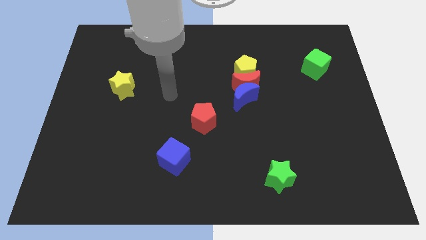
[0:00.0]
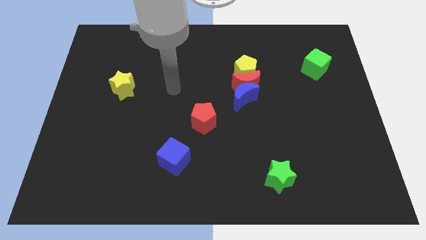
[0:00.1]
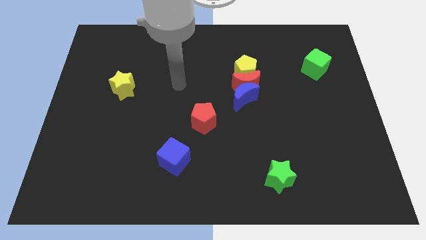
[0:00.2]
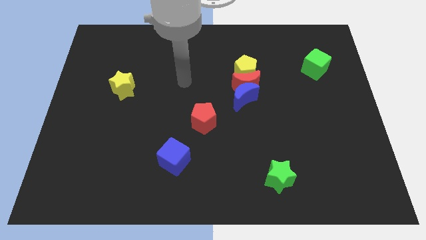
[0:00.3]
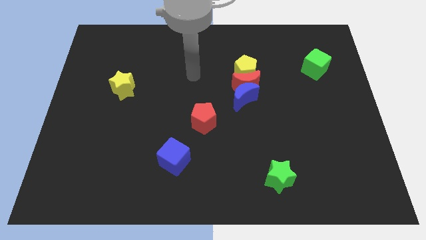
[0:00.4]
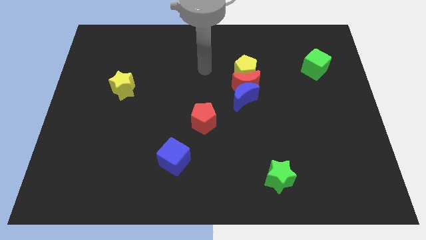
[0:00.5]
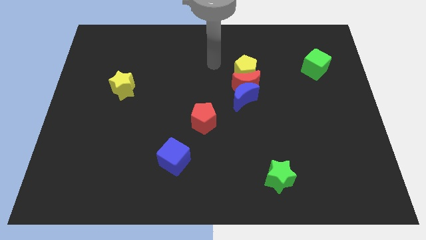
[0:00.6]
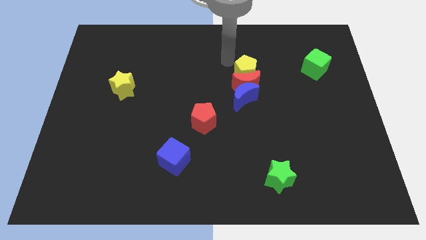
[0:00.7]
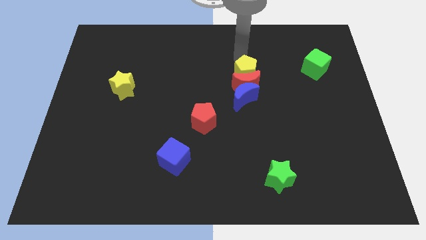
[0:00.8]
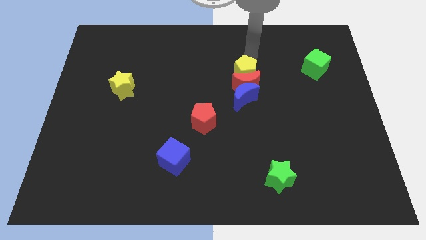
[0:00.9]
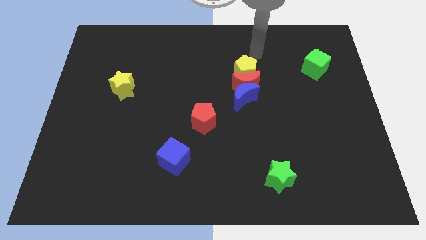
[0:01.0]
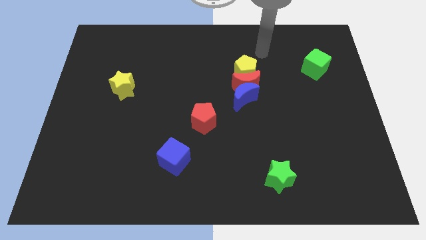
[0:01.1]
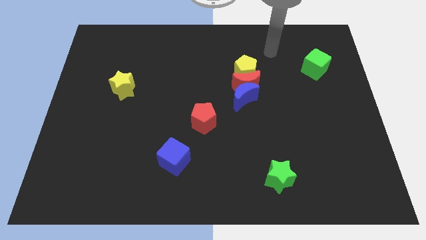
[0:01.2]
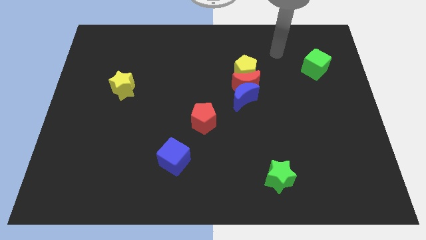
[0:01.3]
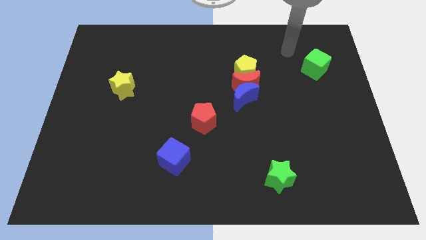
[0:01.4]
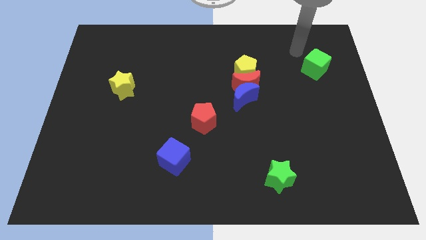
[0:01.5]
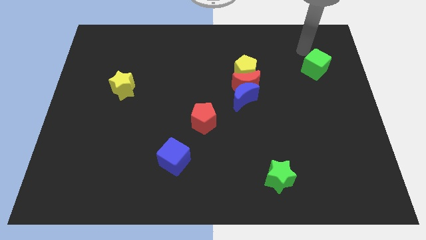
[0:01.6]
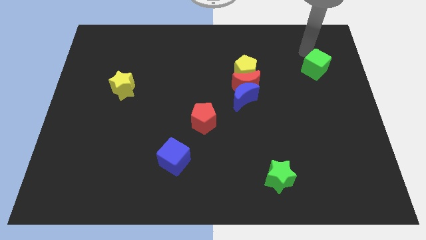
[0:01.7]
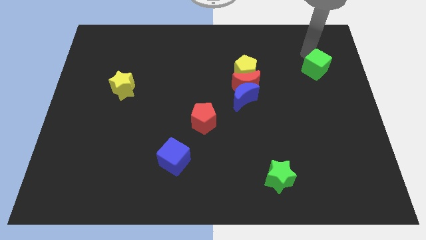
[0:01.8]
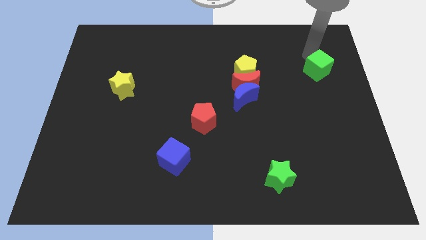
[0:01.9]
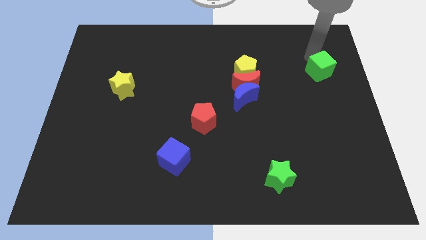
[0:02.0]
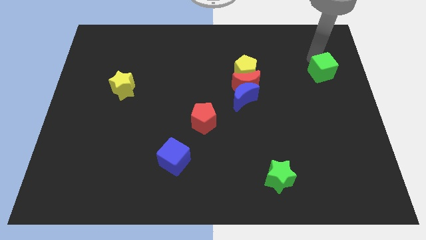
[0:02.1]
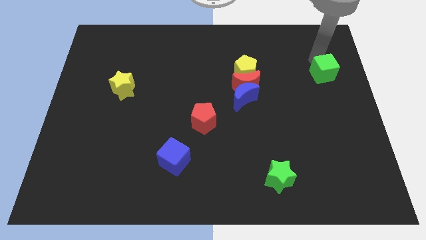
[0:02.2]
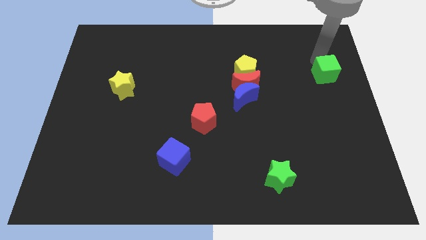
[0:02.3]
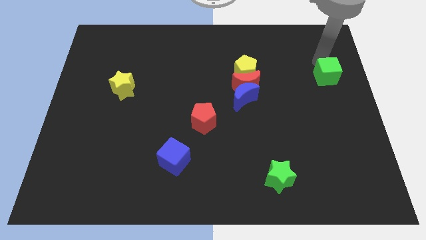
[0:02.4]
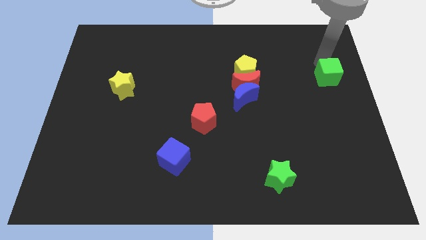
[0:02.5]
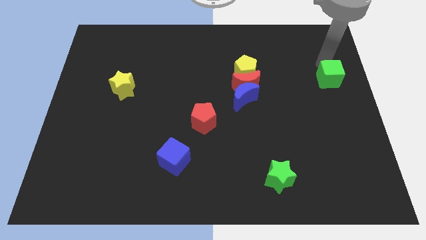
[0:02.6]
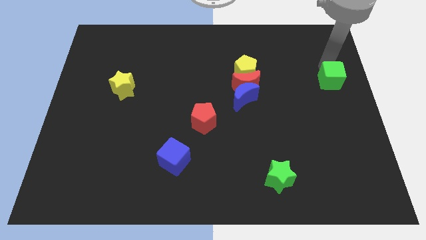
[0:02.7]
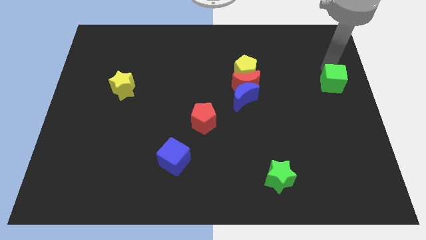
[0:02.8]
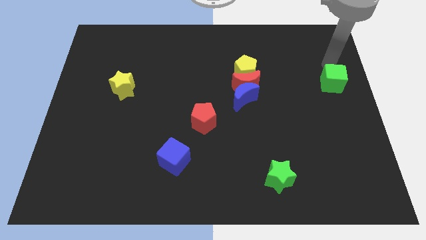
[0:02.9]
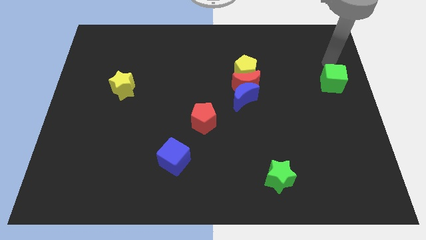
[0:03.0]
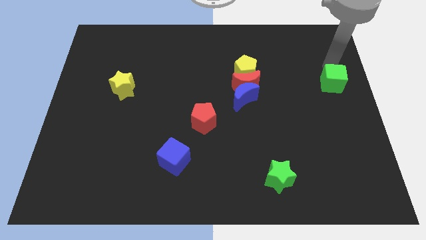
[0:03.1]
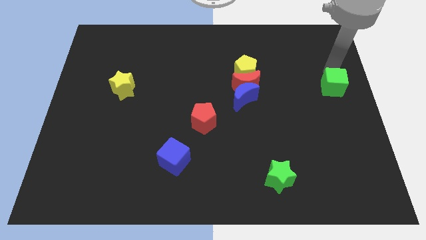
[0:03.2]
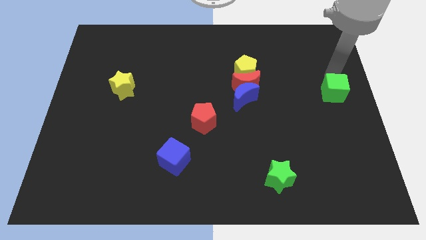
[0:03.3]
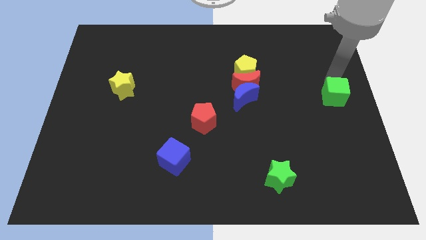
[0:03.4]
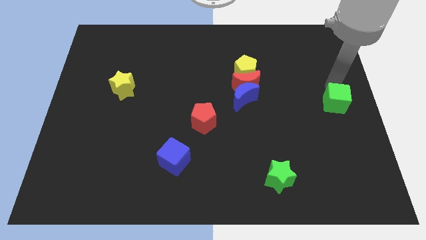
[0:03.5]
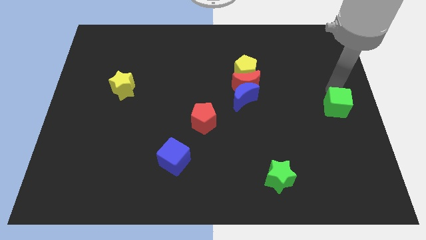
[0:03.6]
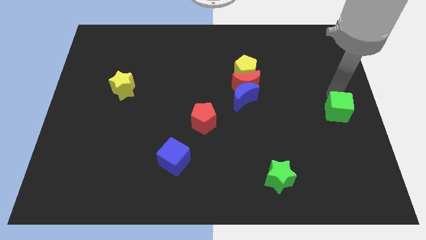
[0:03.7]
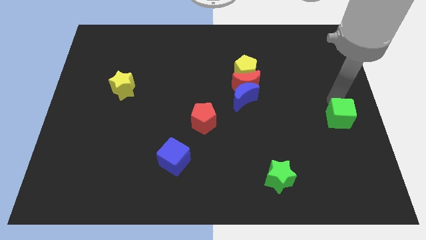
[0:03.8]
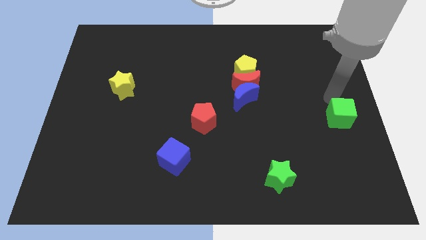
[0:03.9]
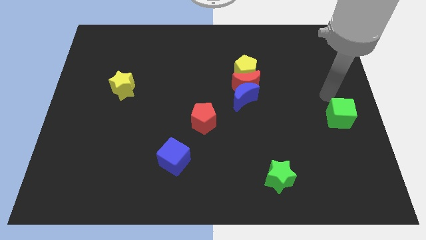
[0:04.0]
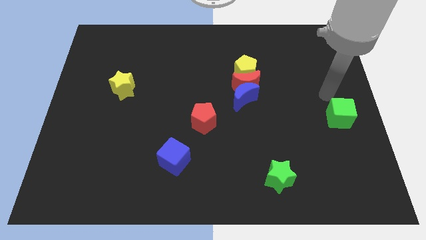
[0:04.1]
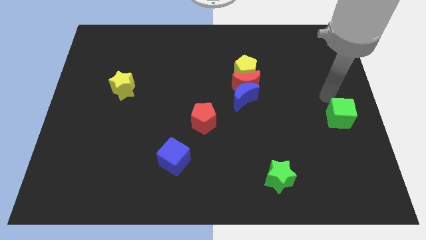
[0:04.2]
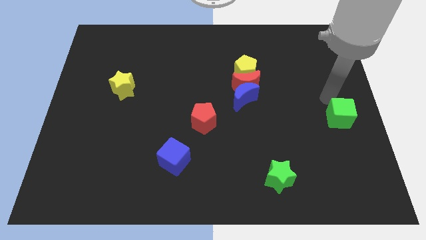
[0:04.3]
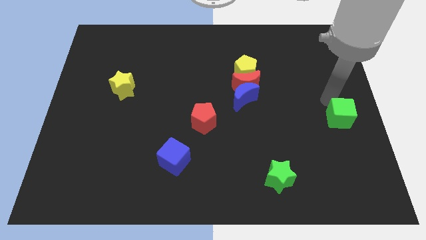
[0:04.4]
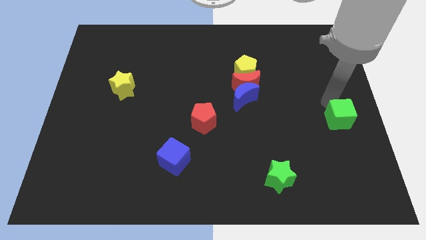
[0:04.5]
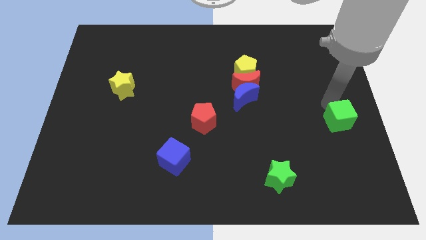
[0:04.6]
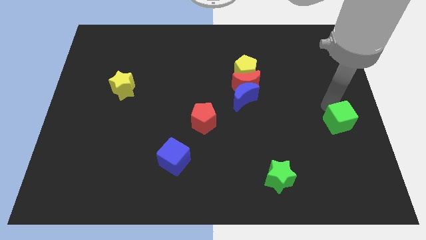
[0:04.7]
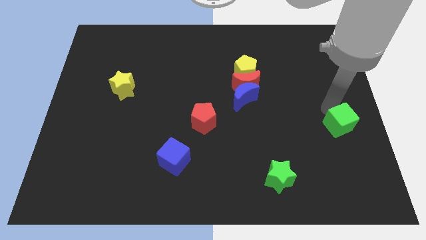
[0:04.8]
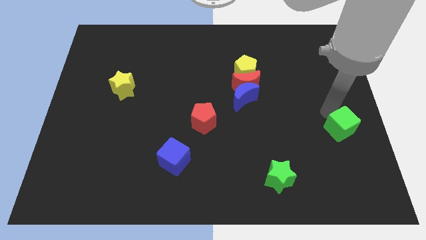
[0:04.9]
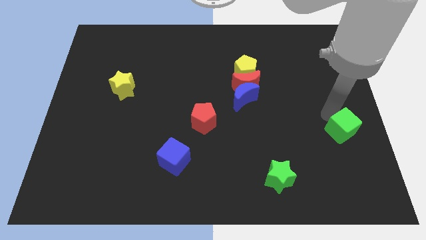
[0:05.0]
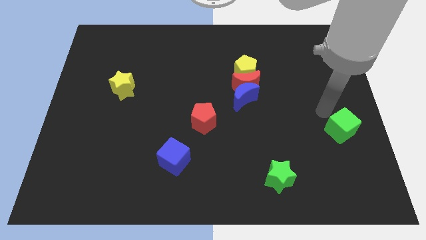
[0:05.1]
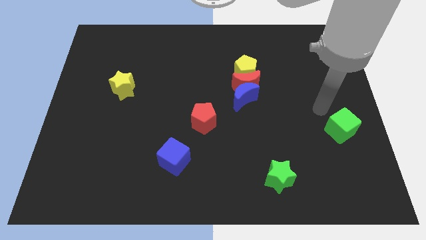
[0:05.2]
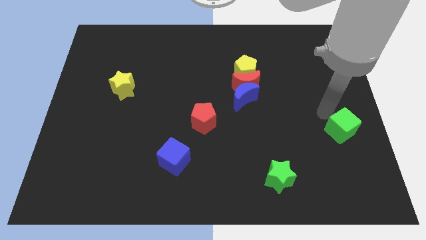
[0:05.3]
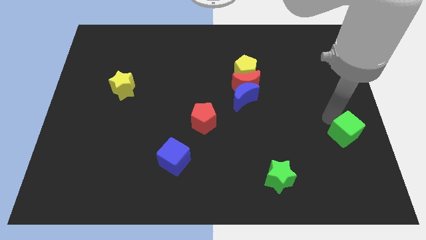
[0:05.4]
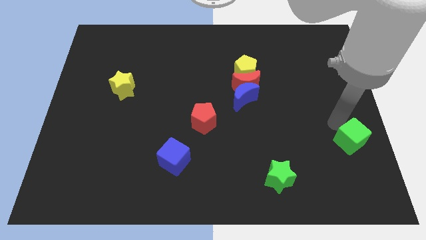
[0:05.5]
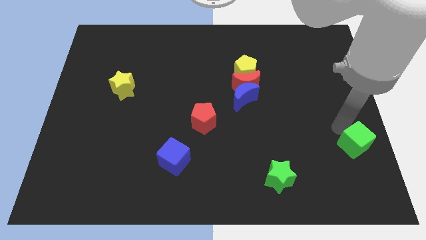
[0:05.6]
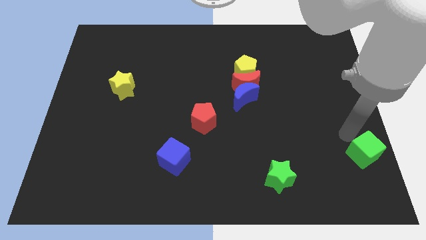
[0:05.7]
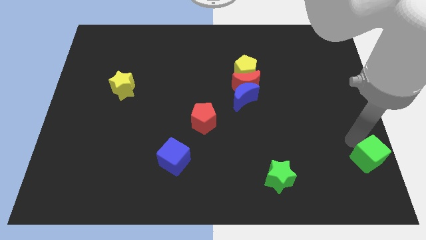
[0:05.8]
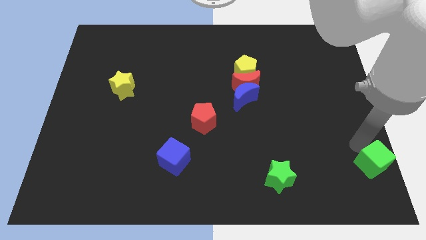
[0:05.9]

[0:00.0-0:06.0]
slide the green cube to the bottom right of the board
